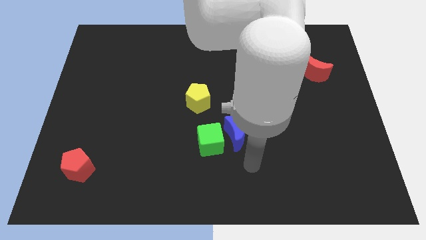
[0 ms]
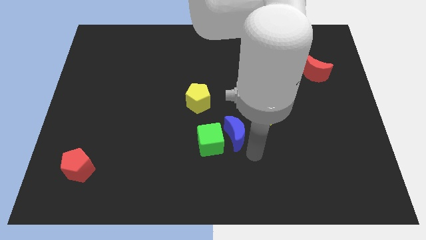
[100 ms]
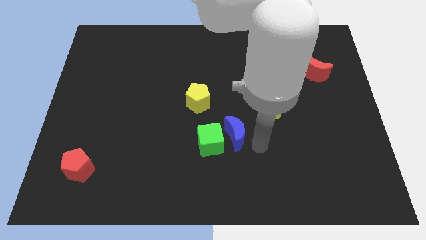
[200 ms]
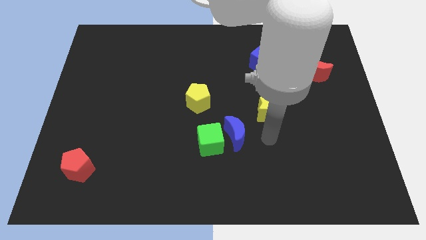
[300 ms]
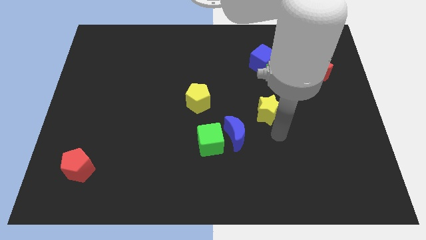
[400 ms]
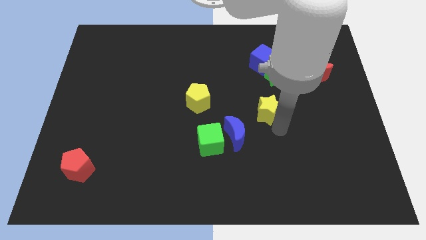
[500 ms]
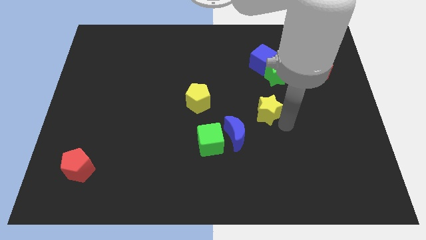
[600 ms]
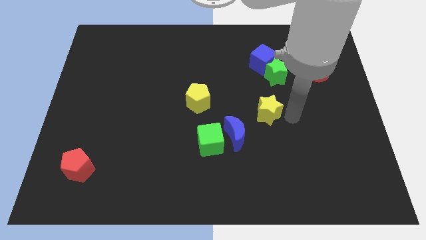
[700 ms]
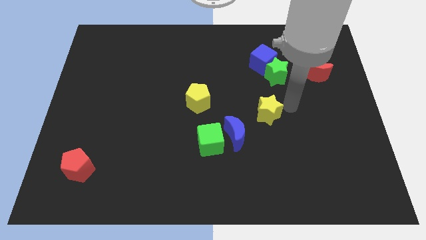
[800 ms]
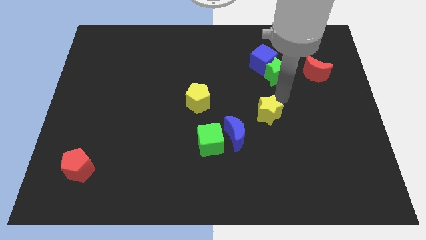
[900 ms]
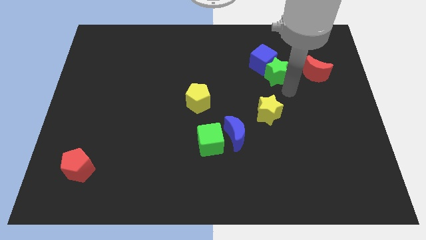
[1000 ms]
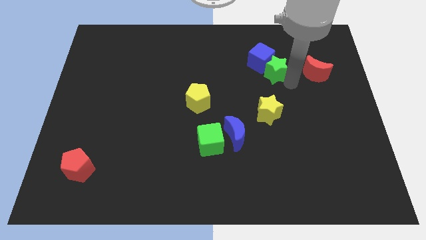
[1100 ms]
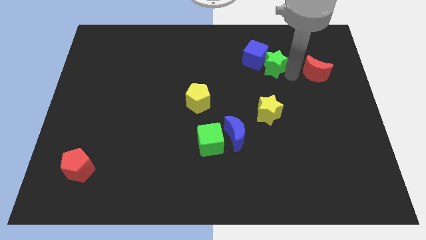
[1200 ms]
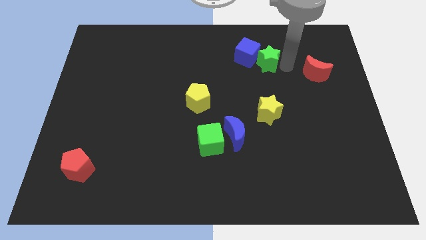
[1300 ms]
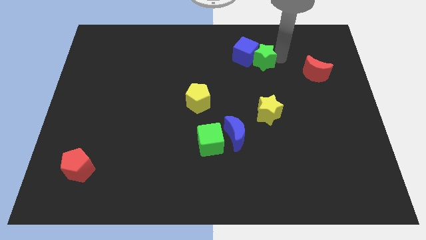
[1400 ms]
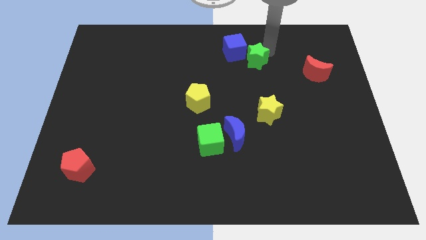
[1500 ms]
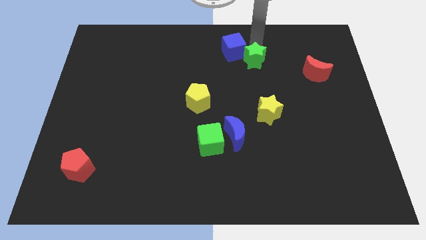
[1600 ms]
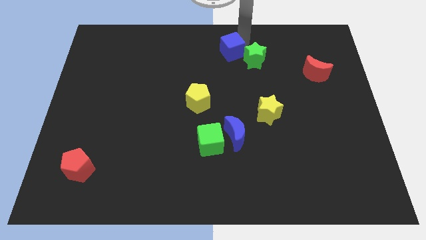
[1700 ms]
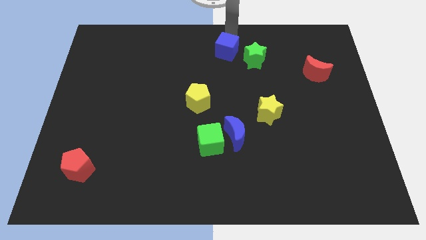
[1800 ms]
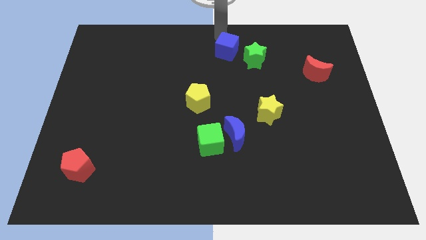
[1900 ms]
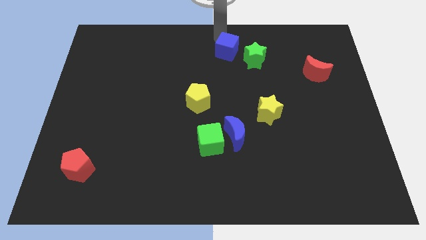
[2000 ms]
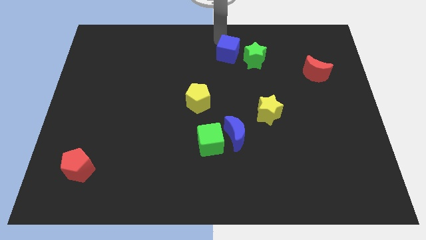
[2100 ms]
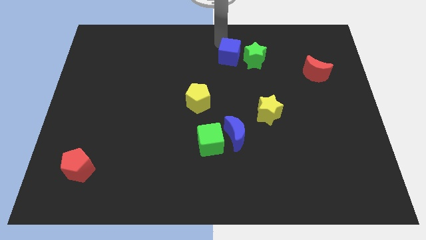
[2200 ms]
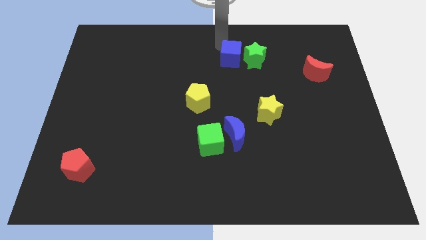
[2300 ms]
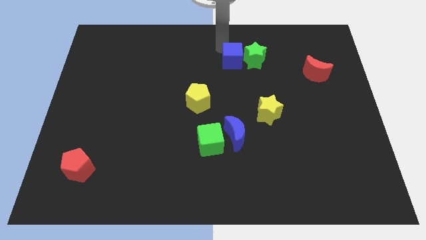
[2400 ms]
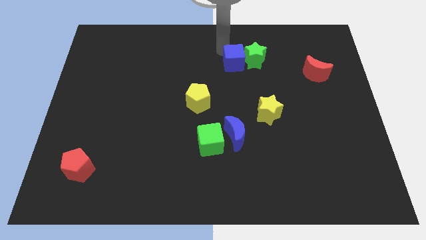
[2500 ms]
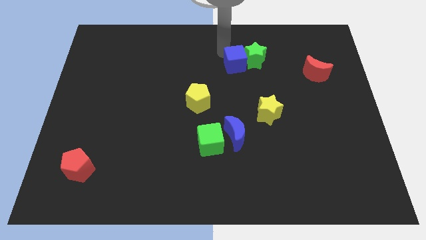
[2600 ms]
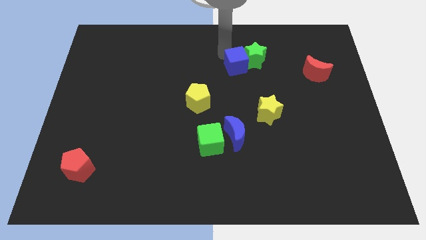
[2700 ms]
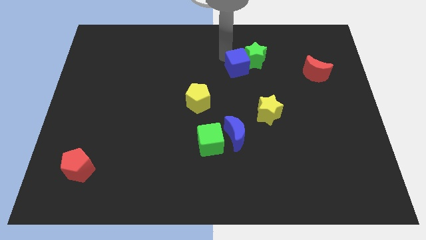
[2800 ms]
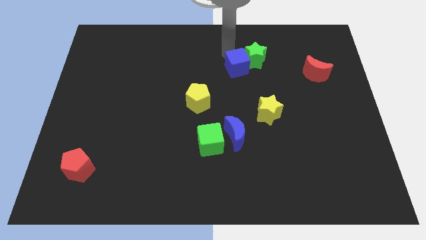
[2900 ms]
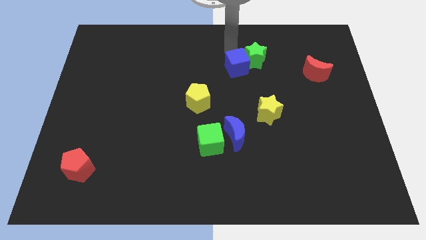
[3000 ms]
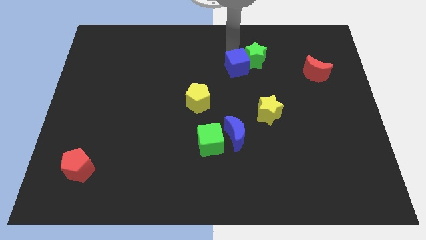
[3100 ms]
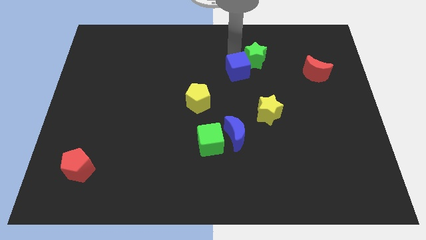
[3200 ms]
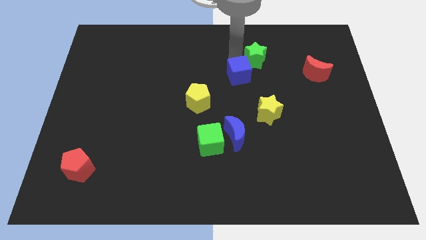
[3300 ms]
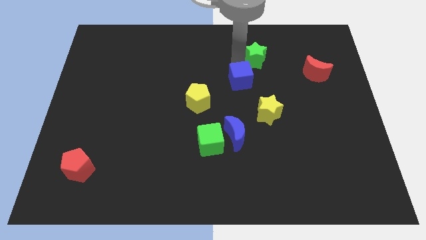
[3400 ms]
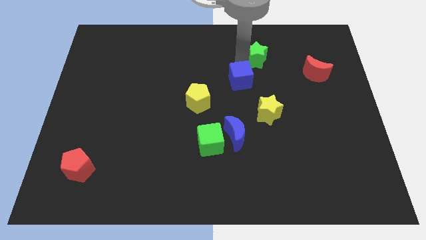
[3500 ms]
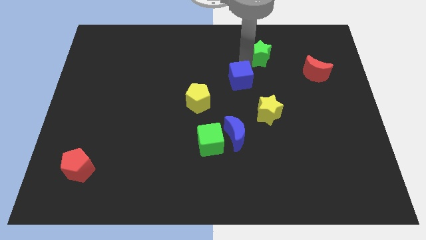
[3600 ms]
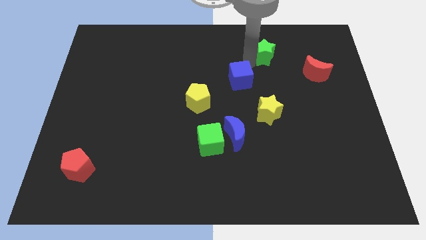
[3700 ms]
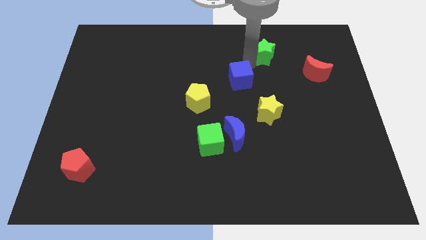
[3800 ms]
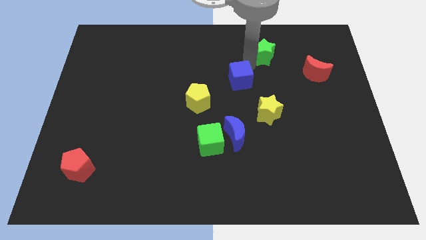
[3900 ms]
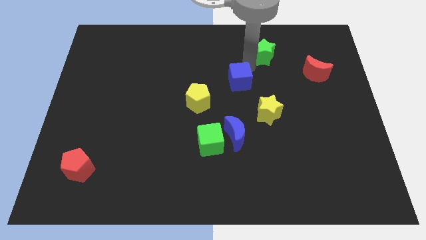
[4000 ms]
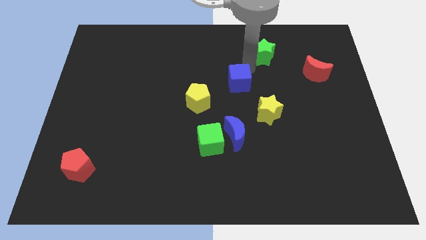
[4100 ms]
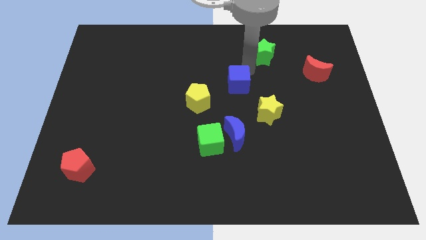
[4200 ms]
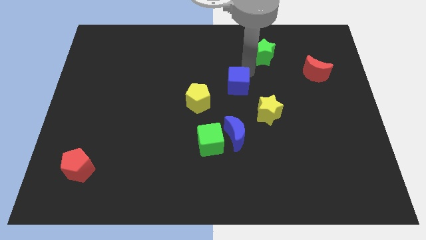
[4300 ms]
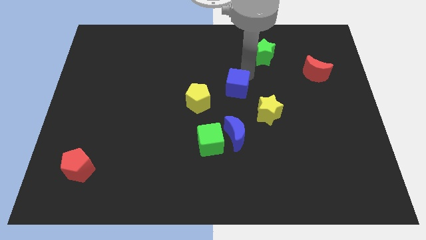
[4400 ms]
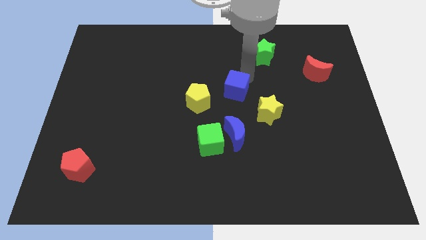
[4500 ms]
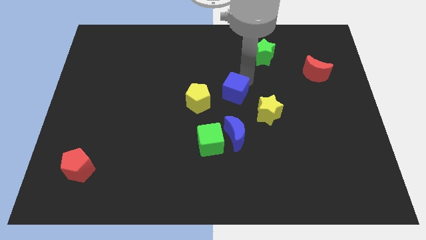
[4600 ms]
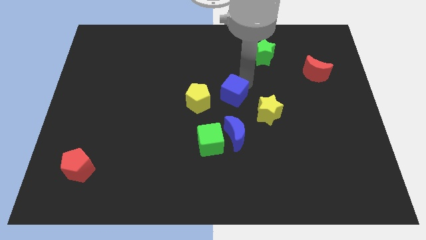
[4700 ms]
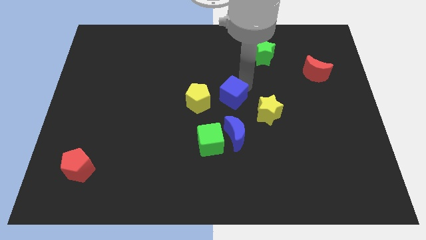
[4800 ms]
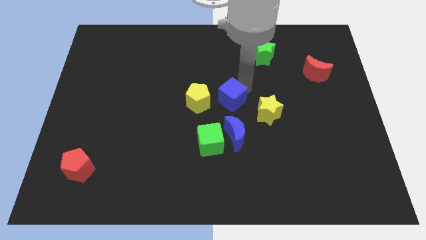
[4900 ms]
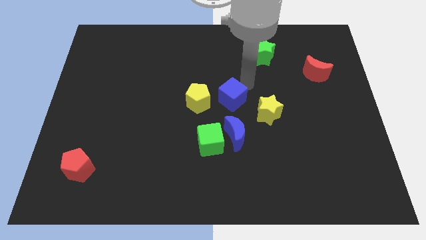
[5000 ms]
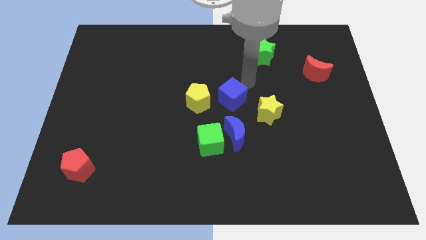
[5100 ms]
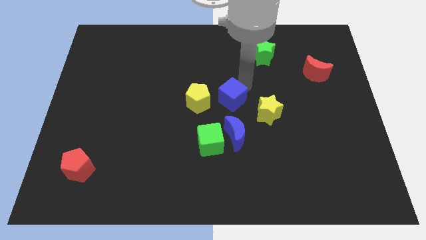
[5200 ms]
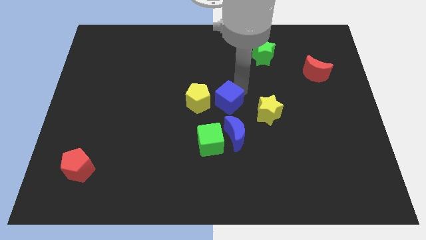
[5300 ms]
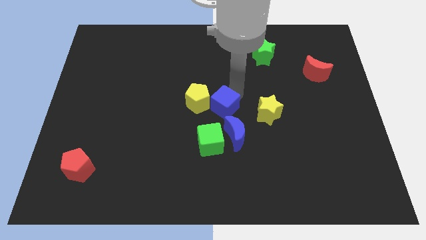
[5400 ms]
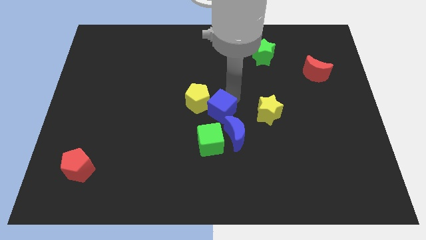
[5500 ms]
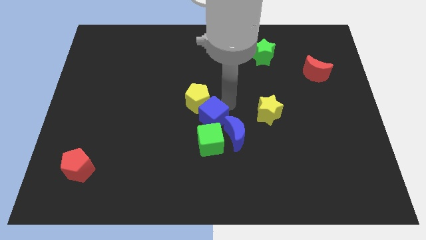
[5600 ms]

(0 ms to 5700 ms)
move the blue cube down and to the left diagonally

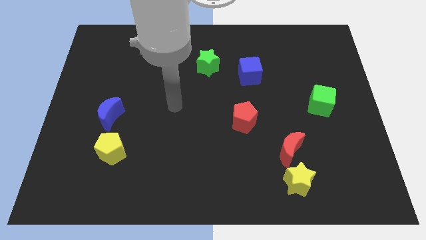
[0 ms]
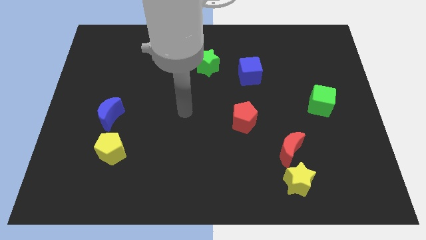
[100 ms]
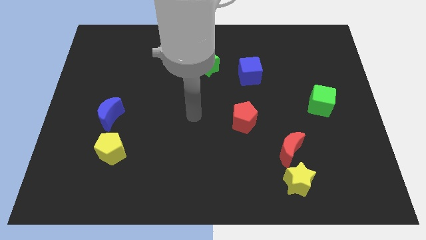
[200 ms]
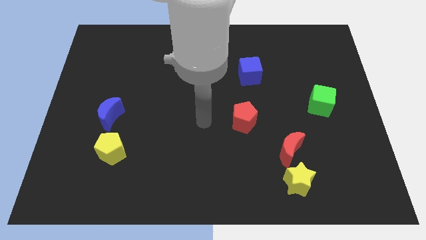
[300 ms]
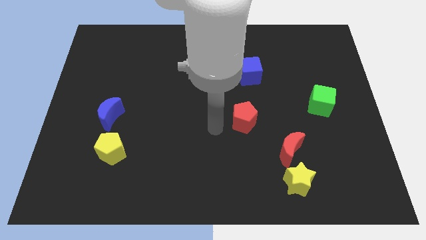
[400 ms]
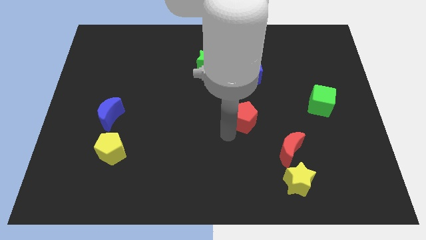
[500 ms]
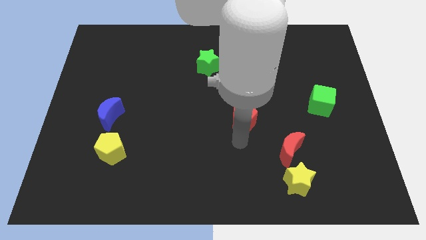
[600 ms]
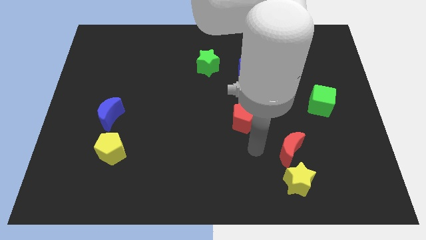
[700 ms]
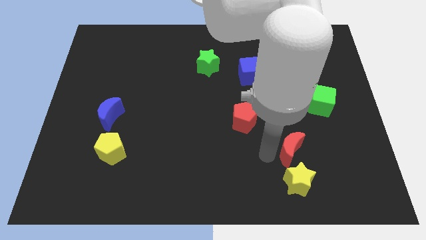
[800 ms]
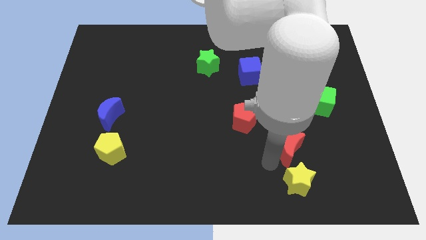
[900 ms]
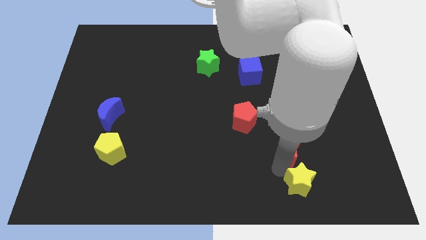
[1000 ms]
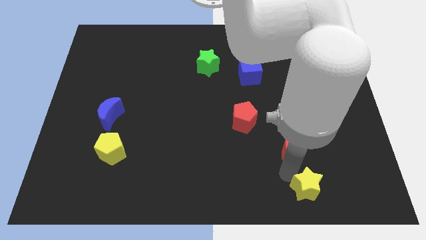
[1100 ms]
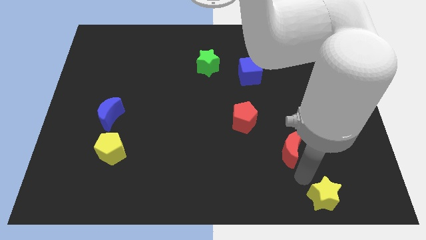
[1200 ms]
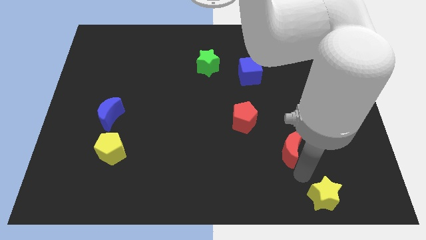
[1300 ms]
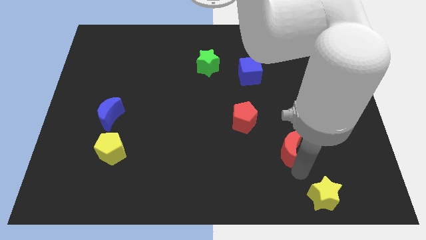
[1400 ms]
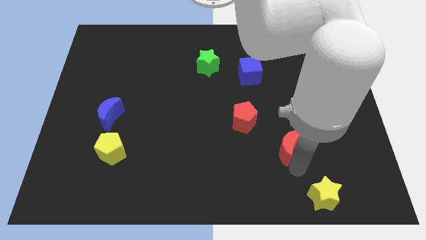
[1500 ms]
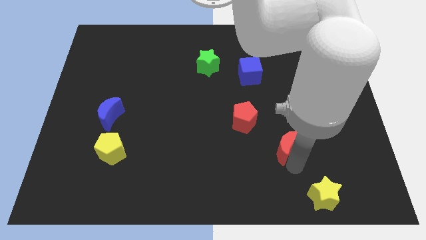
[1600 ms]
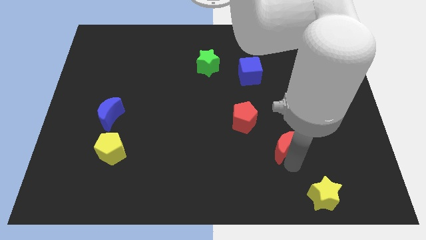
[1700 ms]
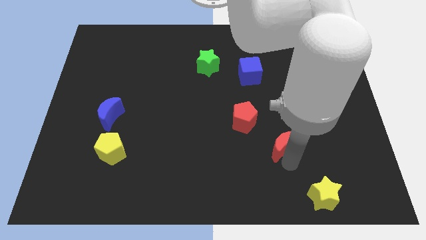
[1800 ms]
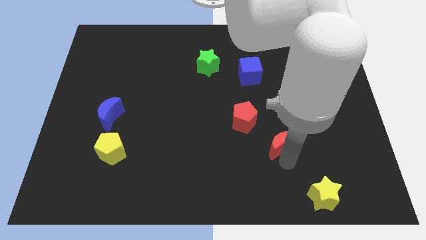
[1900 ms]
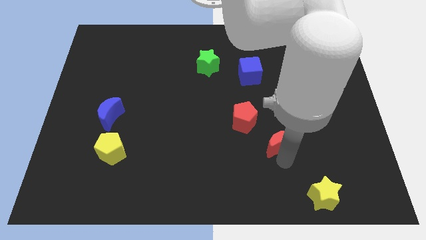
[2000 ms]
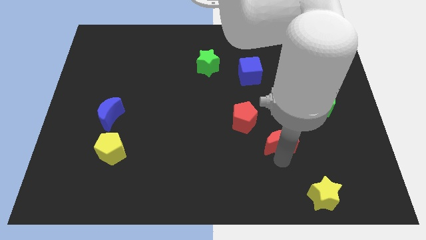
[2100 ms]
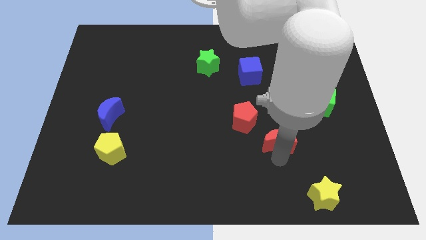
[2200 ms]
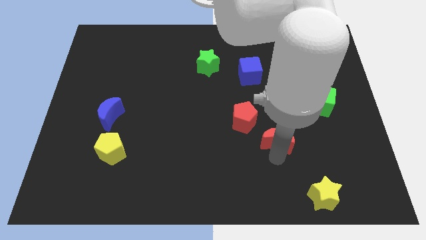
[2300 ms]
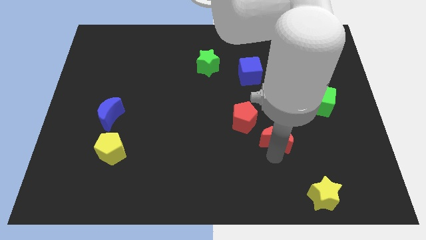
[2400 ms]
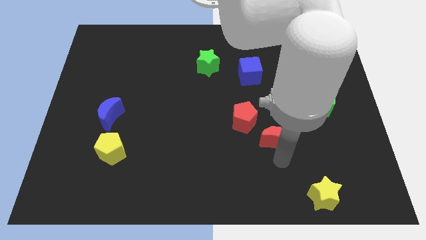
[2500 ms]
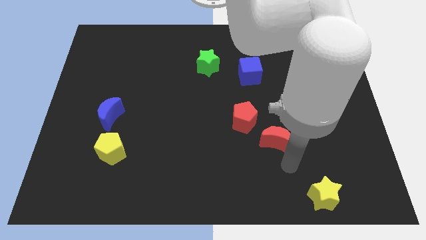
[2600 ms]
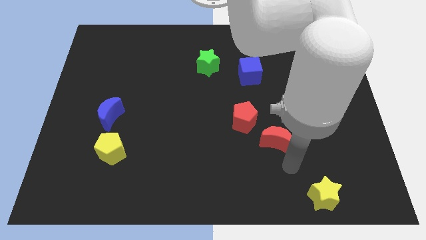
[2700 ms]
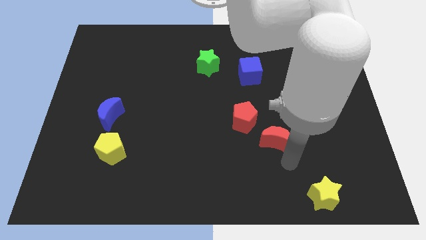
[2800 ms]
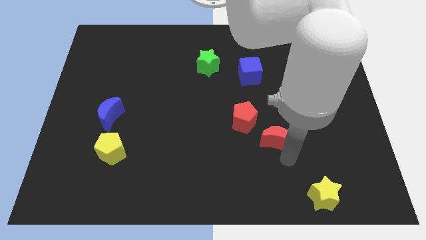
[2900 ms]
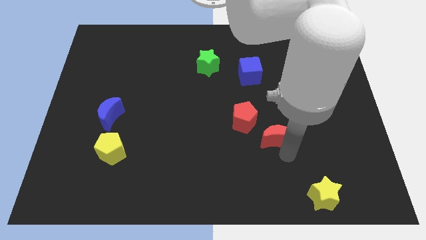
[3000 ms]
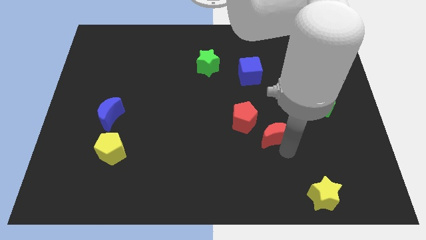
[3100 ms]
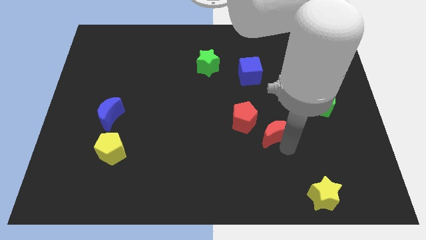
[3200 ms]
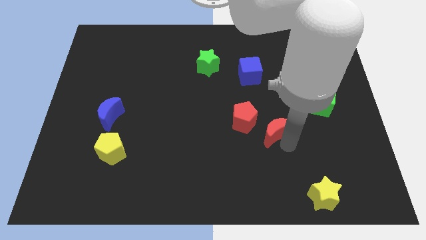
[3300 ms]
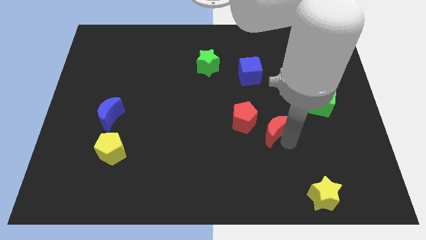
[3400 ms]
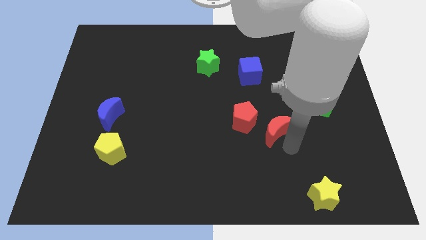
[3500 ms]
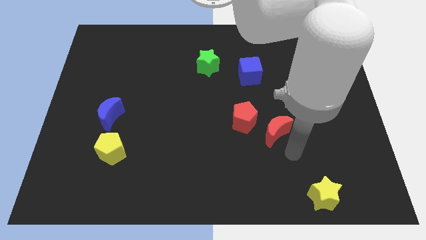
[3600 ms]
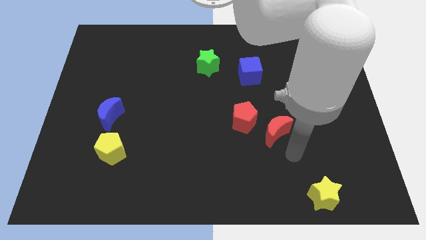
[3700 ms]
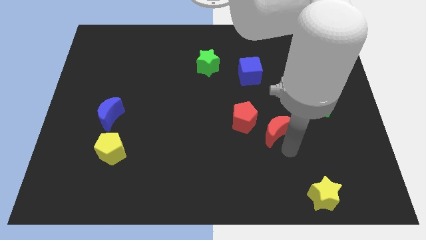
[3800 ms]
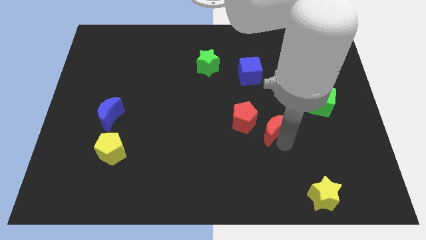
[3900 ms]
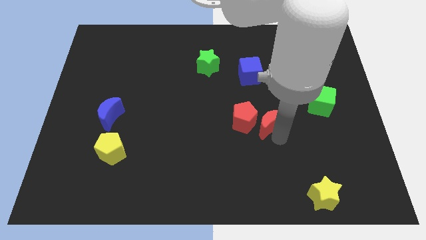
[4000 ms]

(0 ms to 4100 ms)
push the red moon diagonally up and to the left a little bit
